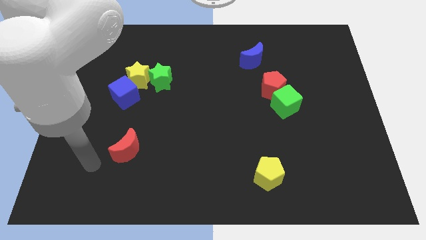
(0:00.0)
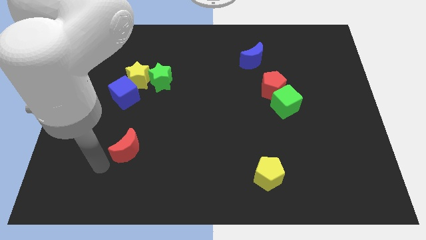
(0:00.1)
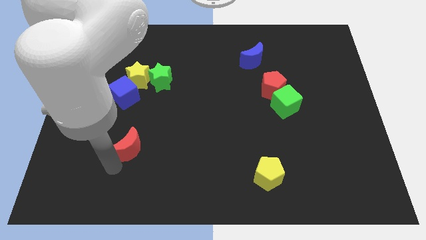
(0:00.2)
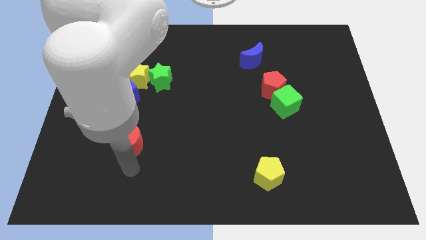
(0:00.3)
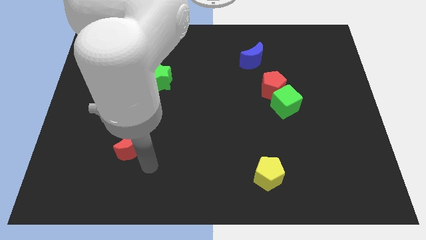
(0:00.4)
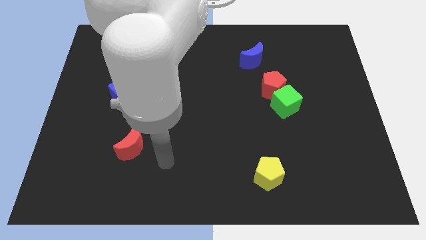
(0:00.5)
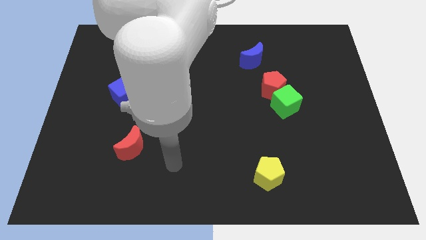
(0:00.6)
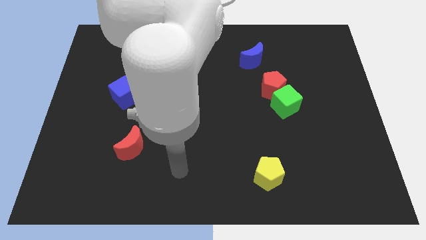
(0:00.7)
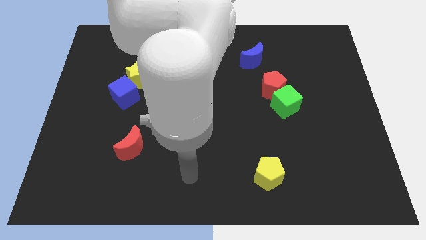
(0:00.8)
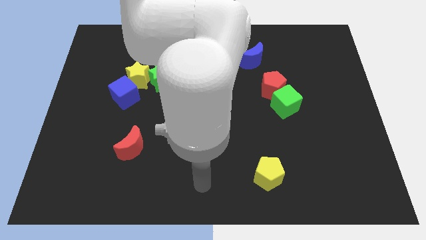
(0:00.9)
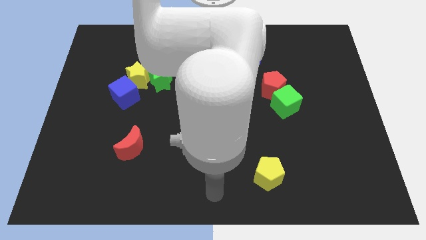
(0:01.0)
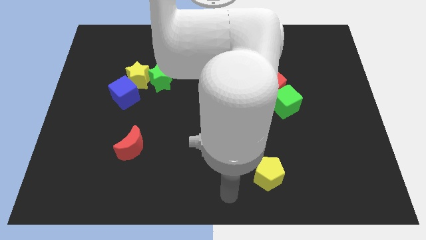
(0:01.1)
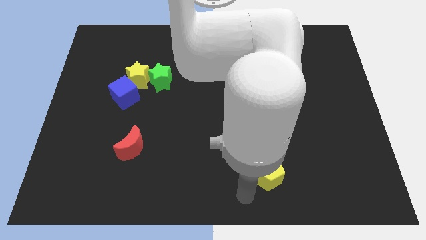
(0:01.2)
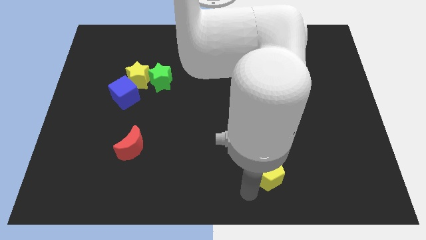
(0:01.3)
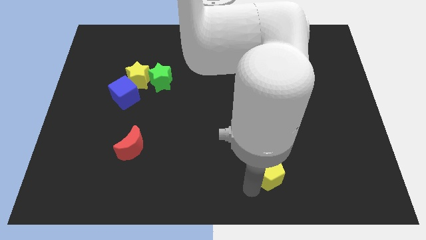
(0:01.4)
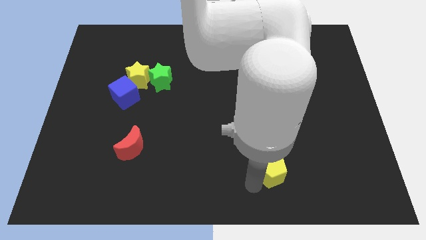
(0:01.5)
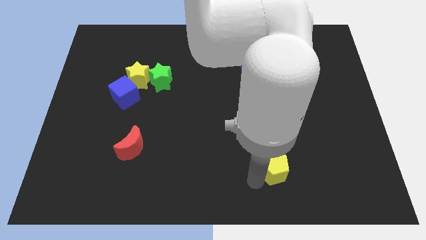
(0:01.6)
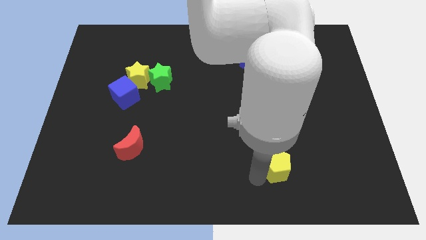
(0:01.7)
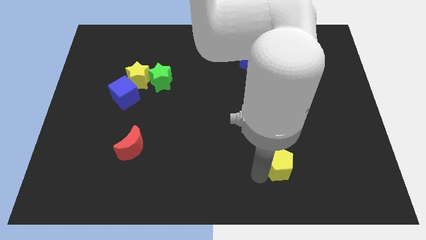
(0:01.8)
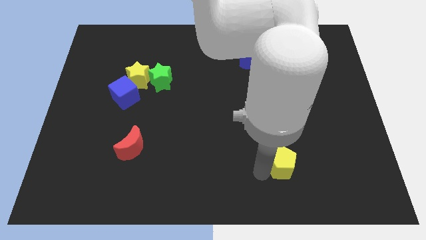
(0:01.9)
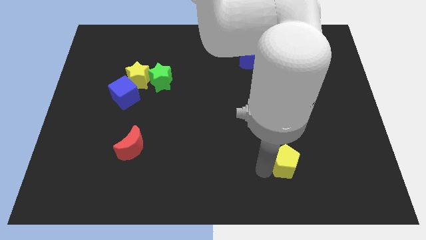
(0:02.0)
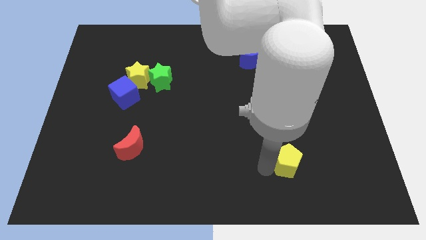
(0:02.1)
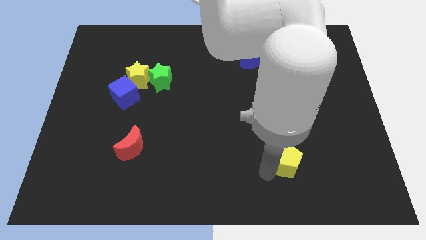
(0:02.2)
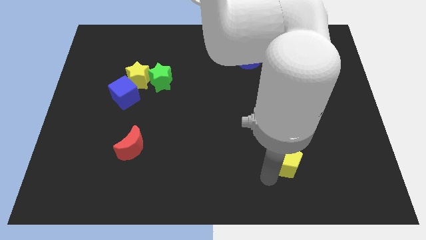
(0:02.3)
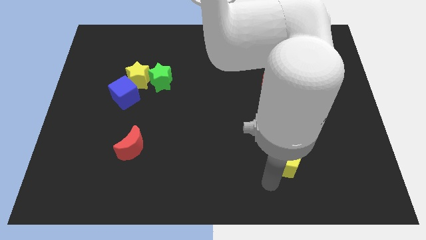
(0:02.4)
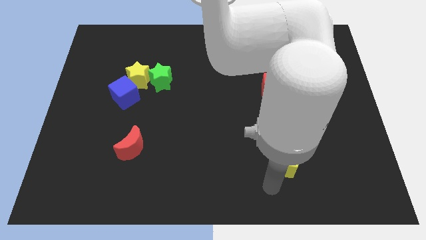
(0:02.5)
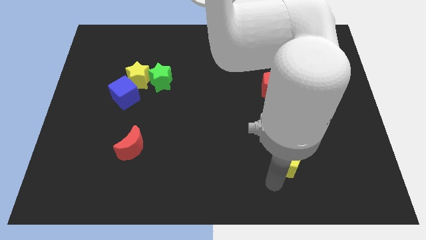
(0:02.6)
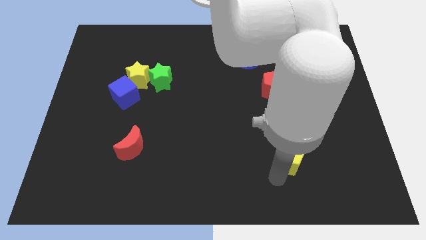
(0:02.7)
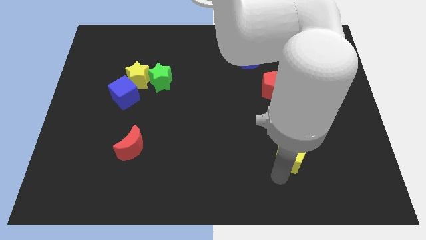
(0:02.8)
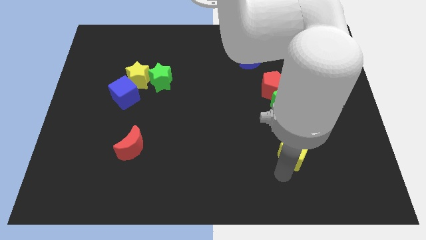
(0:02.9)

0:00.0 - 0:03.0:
move the yellow pentagon upwards and to the right diagonally slightly

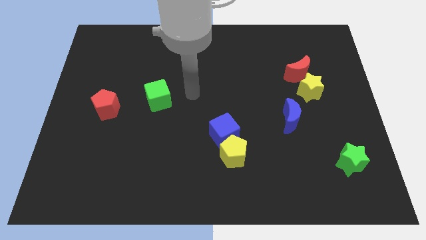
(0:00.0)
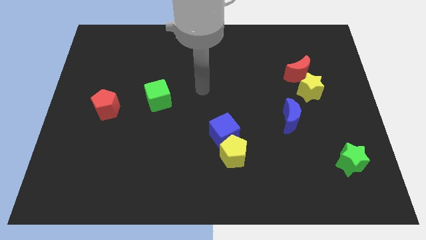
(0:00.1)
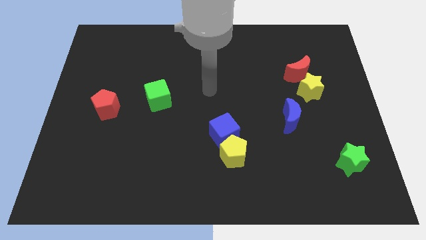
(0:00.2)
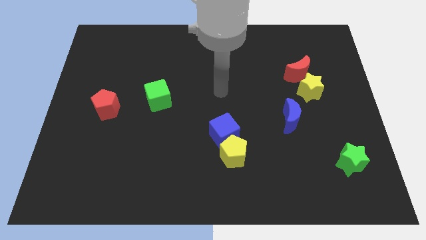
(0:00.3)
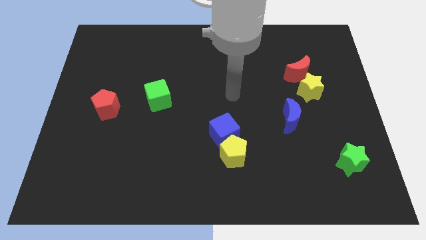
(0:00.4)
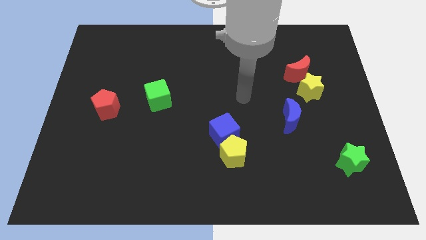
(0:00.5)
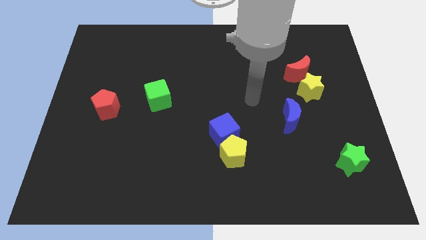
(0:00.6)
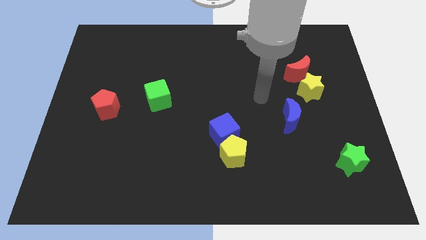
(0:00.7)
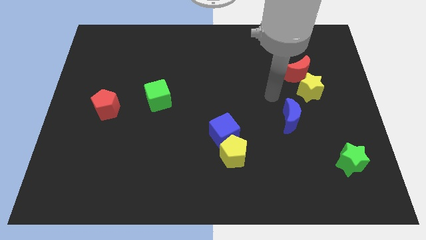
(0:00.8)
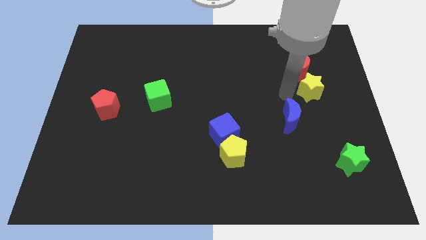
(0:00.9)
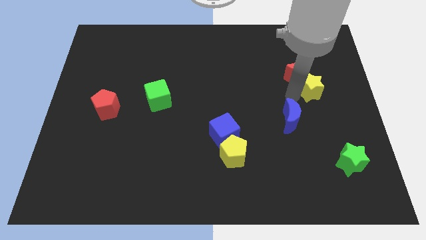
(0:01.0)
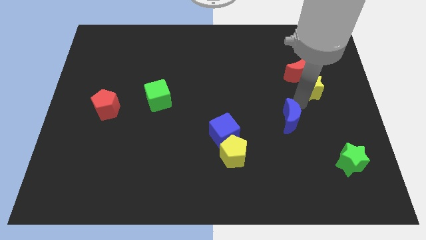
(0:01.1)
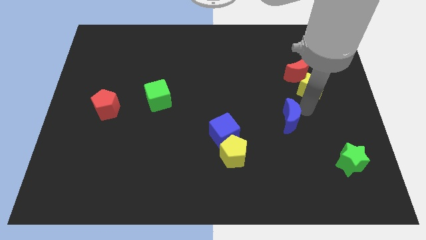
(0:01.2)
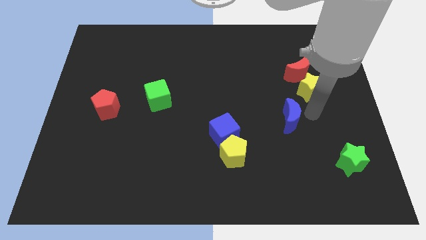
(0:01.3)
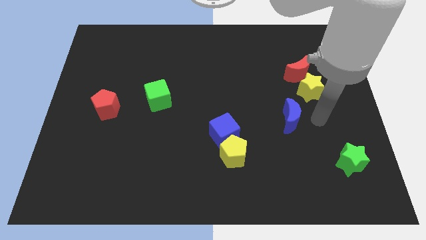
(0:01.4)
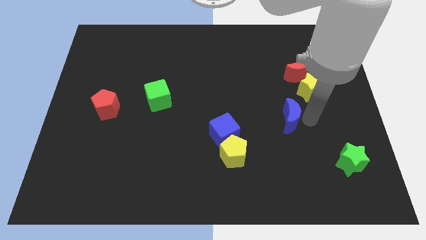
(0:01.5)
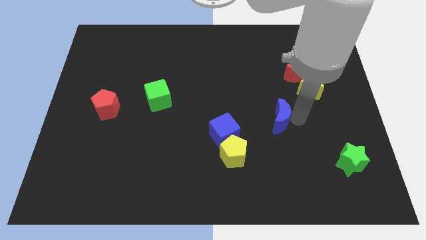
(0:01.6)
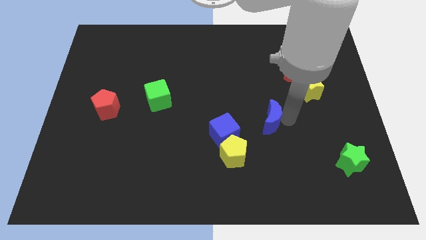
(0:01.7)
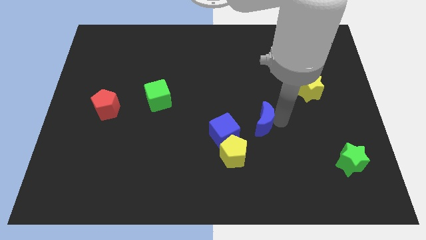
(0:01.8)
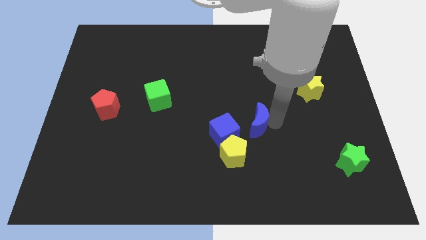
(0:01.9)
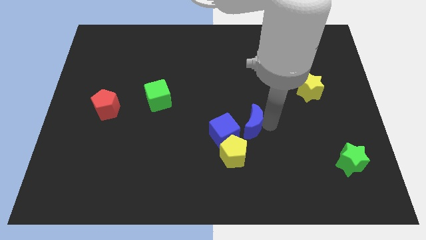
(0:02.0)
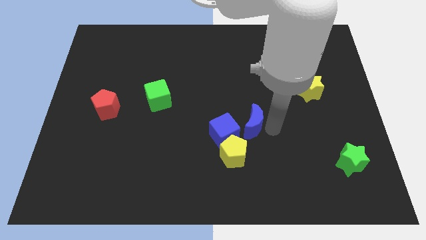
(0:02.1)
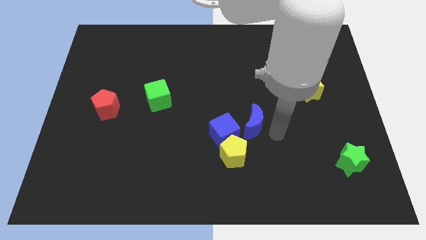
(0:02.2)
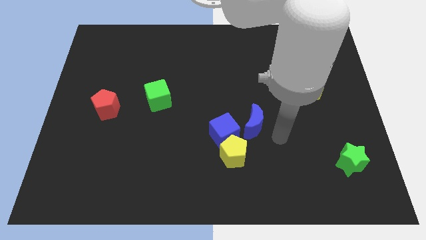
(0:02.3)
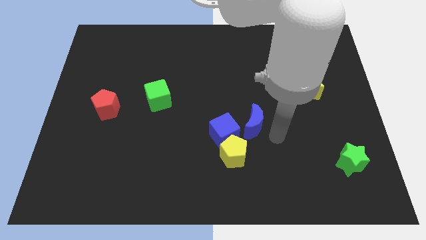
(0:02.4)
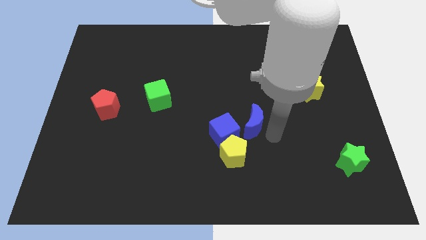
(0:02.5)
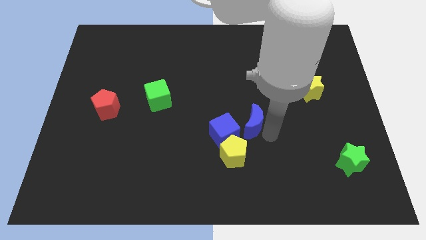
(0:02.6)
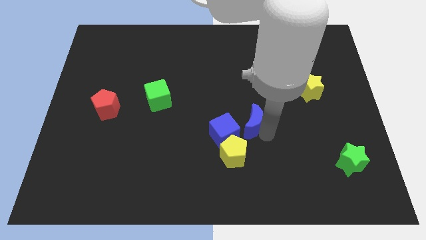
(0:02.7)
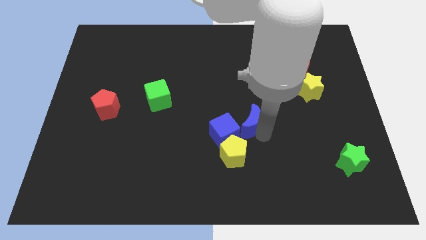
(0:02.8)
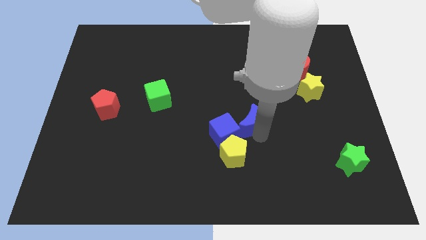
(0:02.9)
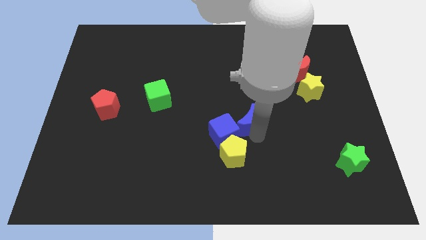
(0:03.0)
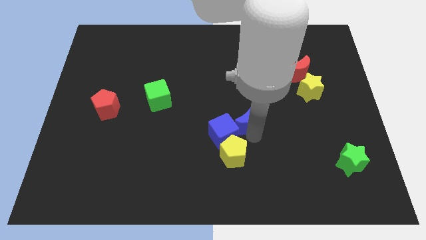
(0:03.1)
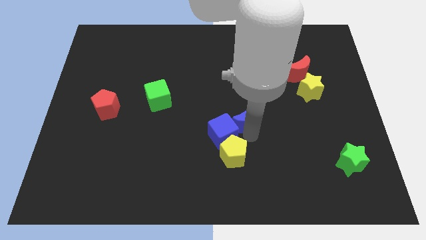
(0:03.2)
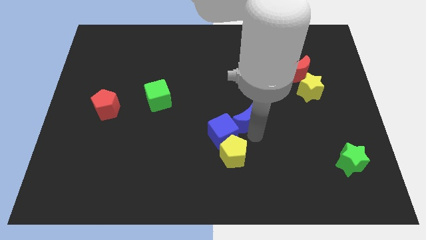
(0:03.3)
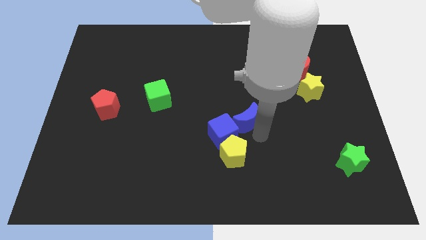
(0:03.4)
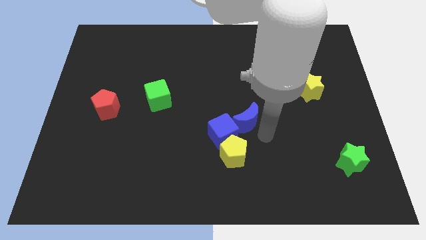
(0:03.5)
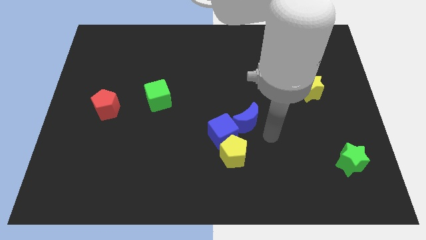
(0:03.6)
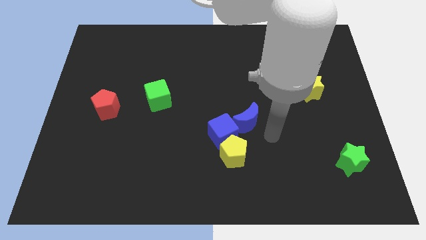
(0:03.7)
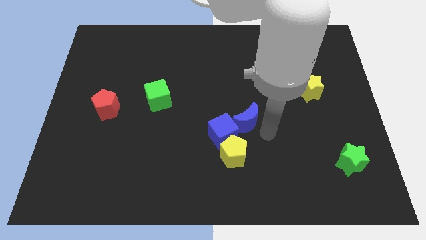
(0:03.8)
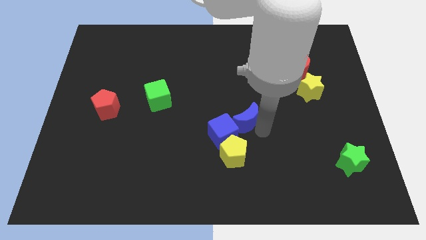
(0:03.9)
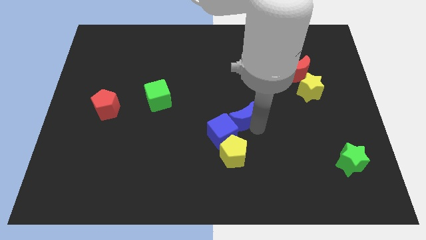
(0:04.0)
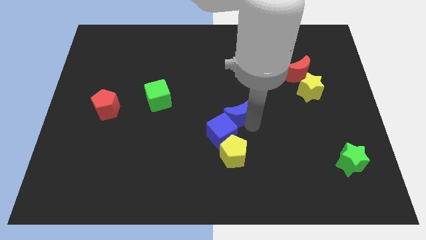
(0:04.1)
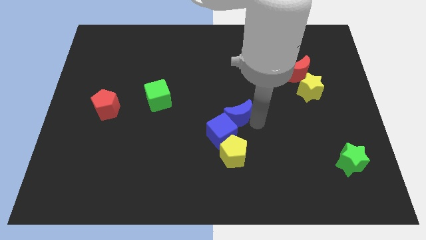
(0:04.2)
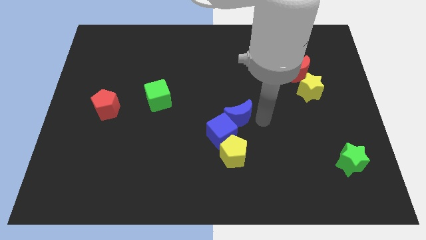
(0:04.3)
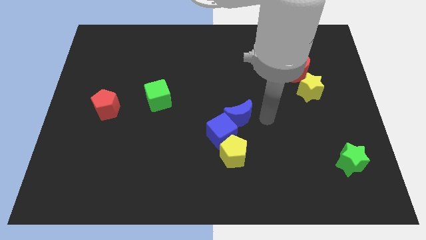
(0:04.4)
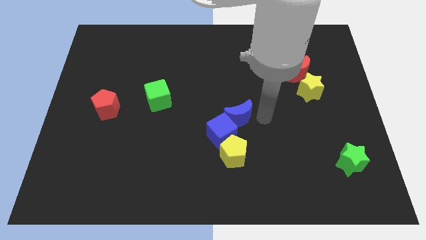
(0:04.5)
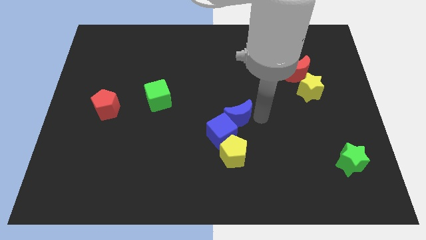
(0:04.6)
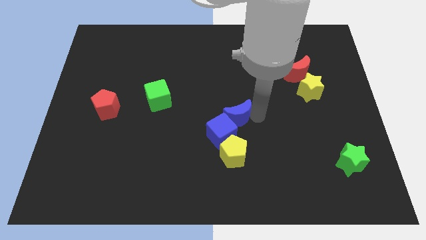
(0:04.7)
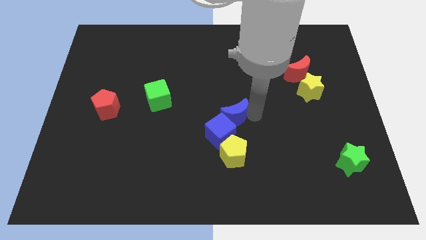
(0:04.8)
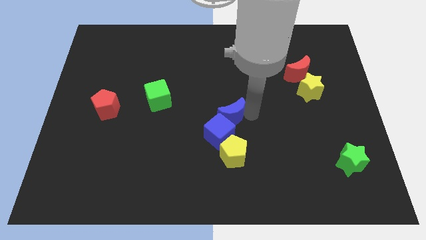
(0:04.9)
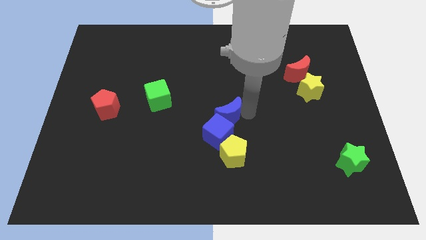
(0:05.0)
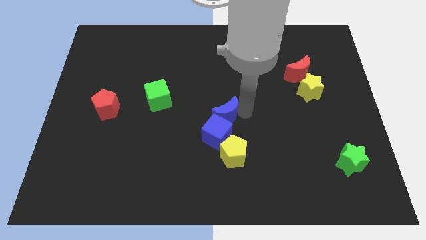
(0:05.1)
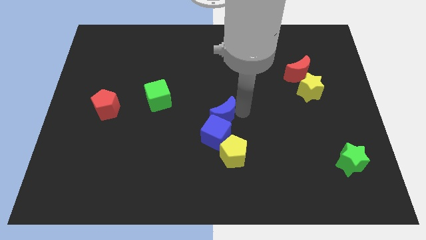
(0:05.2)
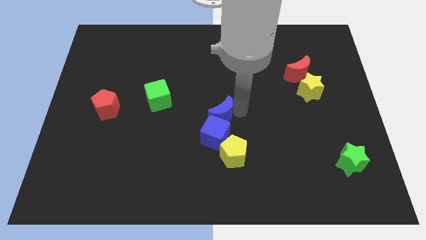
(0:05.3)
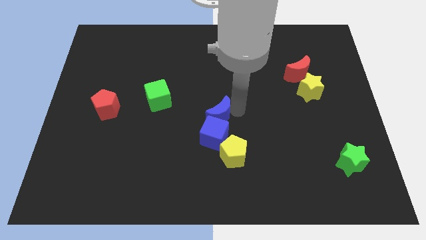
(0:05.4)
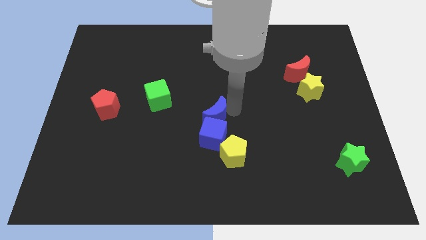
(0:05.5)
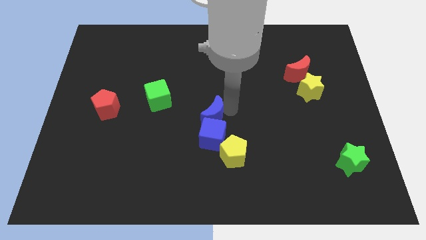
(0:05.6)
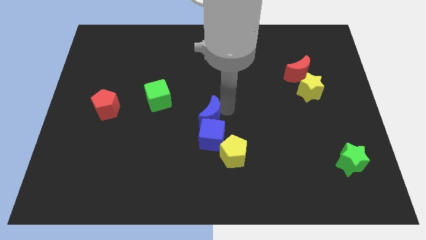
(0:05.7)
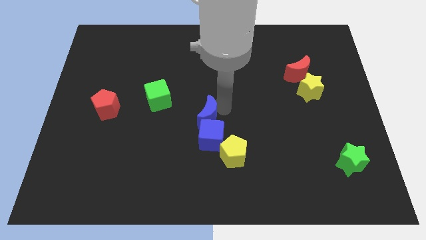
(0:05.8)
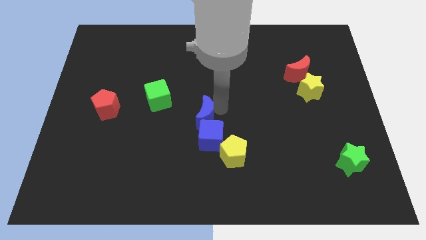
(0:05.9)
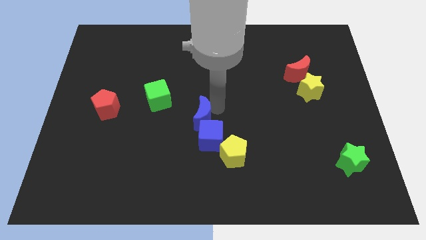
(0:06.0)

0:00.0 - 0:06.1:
push the blue moon to the left
